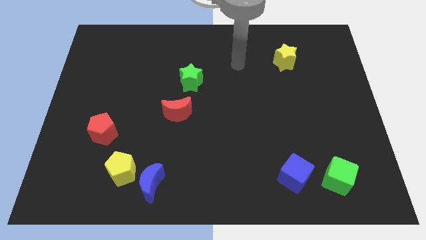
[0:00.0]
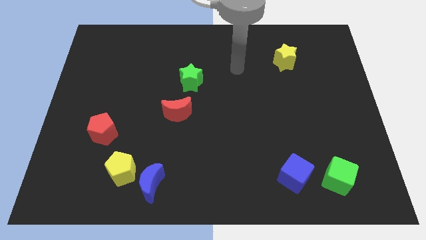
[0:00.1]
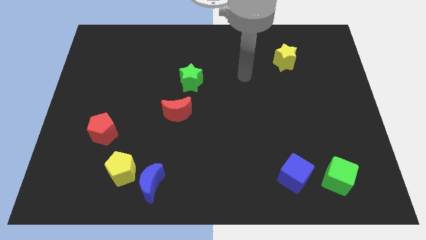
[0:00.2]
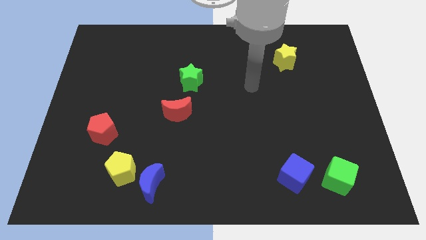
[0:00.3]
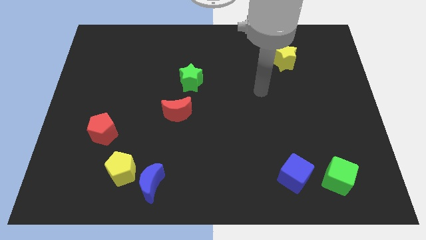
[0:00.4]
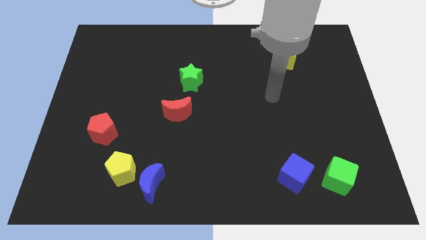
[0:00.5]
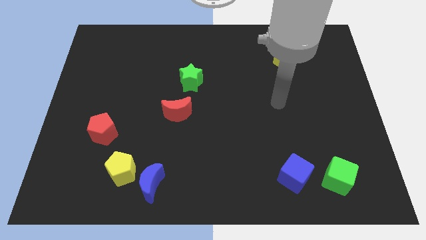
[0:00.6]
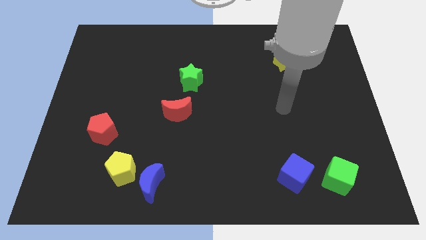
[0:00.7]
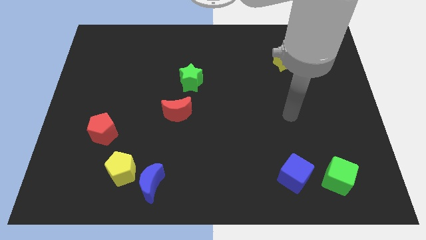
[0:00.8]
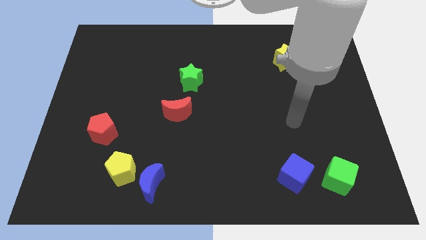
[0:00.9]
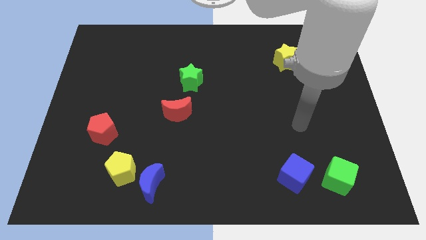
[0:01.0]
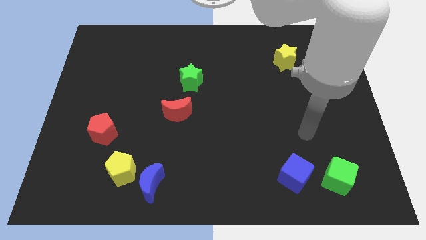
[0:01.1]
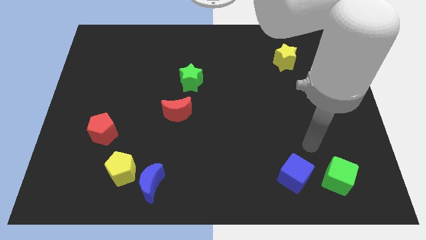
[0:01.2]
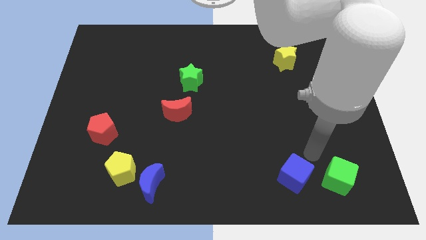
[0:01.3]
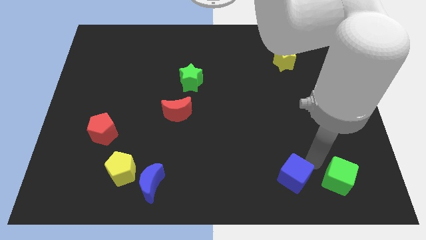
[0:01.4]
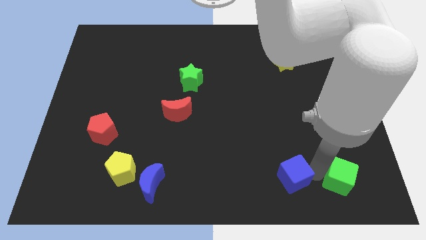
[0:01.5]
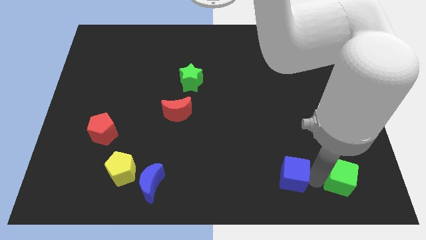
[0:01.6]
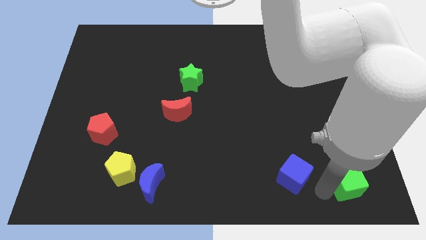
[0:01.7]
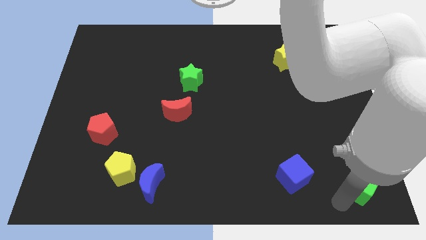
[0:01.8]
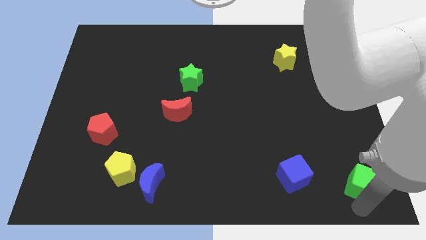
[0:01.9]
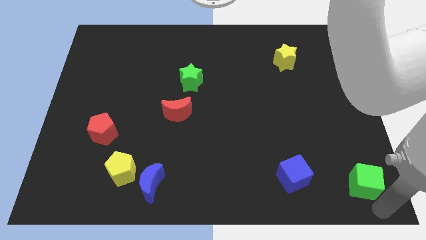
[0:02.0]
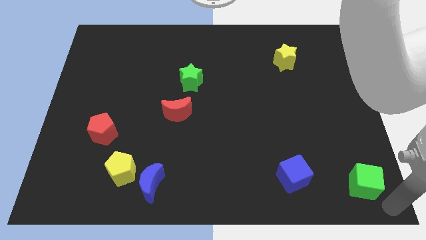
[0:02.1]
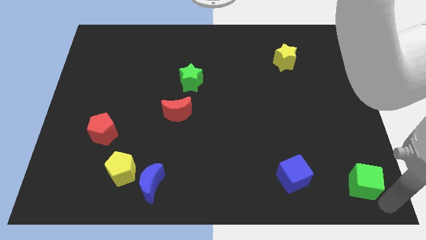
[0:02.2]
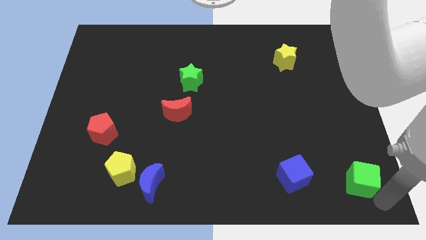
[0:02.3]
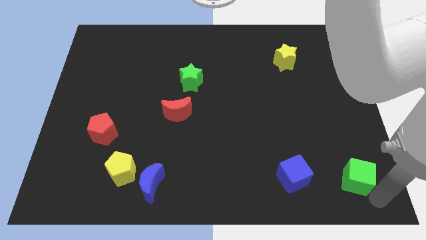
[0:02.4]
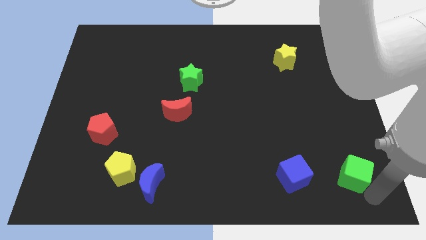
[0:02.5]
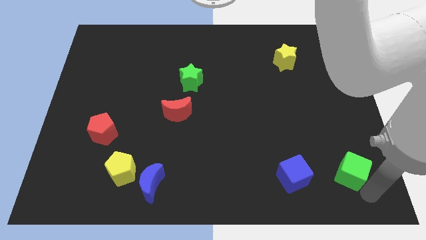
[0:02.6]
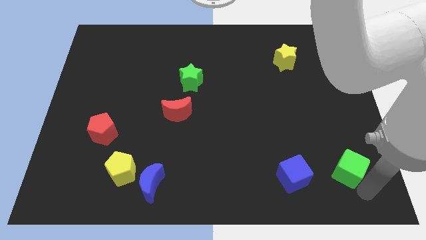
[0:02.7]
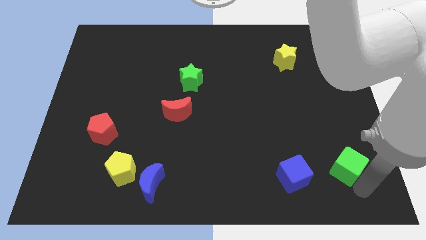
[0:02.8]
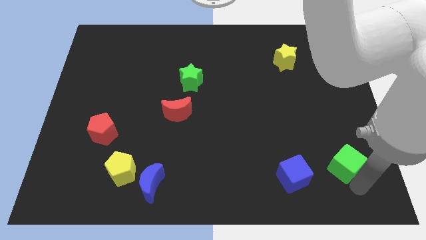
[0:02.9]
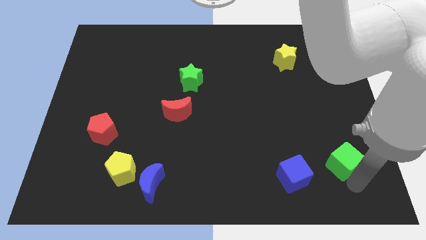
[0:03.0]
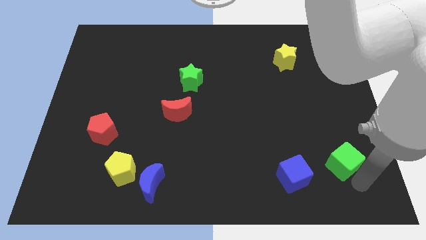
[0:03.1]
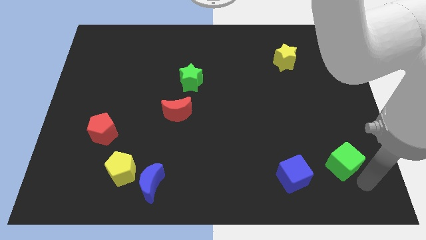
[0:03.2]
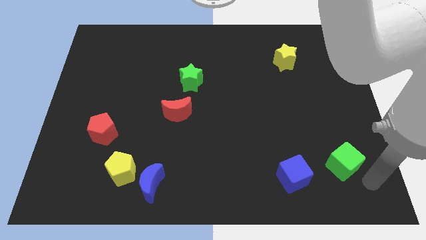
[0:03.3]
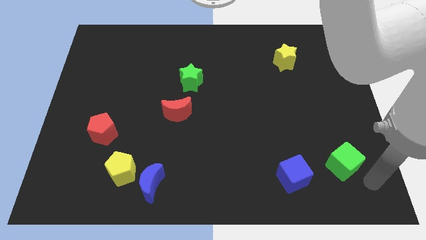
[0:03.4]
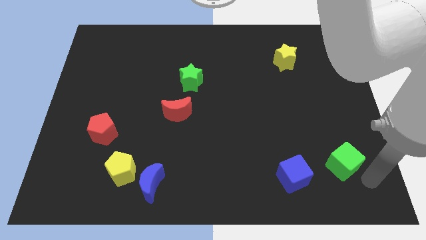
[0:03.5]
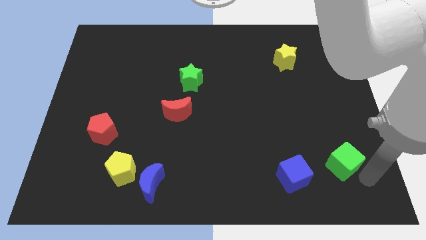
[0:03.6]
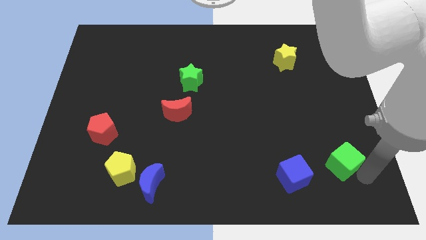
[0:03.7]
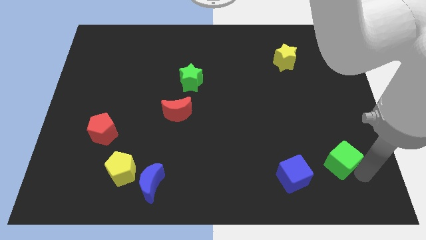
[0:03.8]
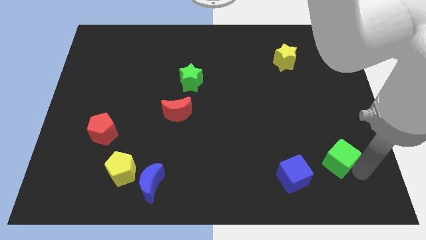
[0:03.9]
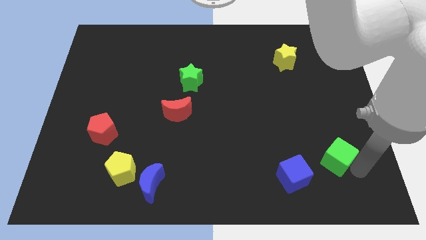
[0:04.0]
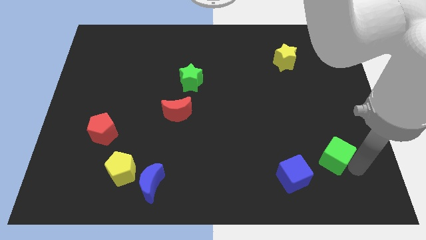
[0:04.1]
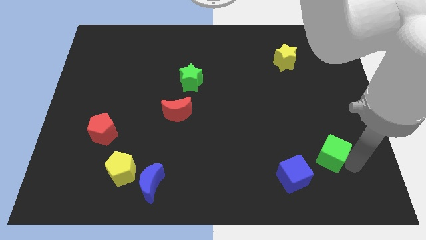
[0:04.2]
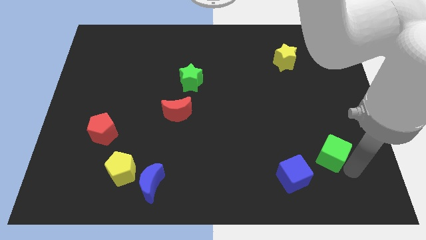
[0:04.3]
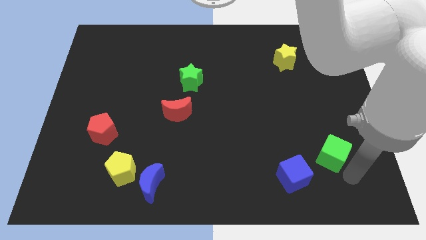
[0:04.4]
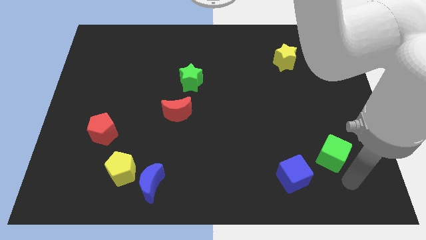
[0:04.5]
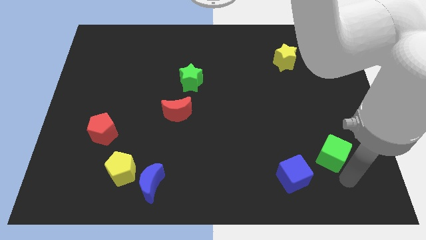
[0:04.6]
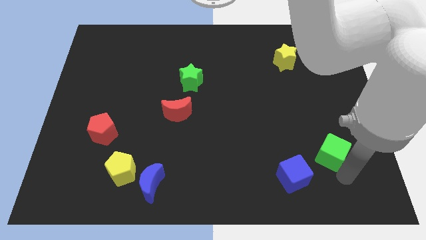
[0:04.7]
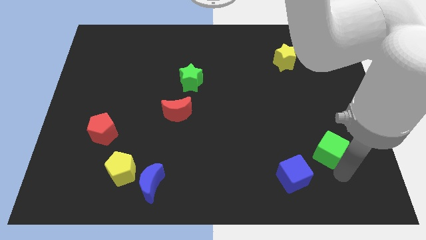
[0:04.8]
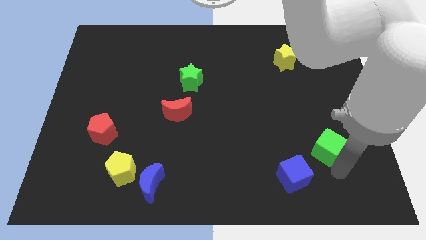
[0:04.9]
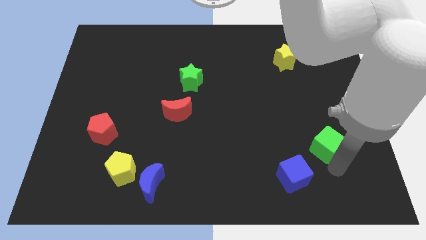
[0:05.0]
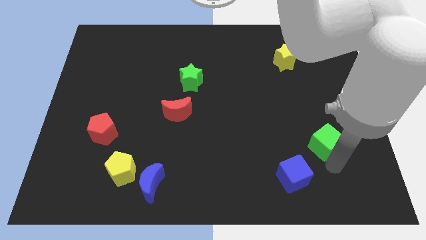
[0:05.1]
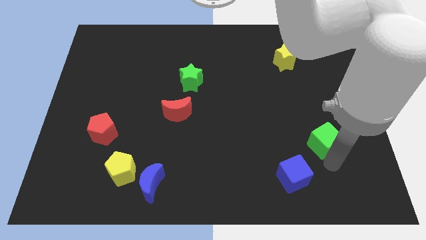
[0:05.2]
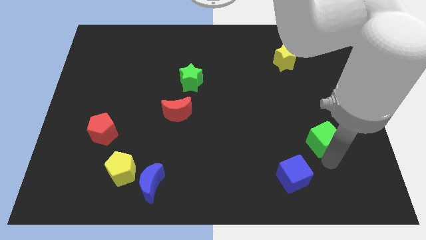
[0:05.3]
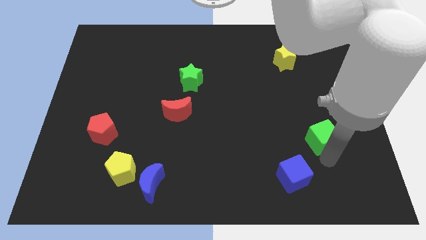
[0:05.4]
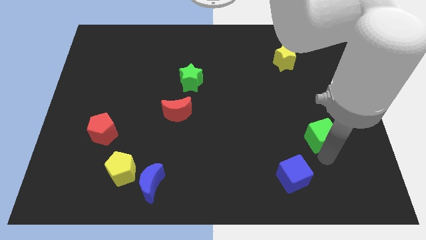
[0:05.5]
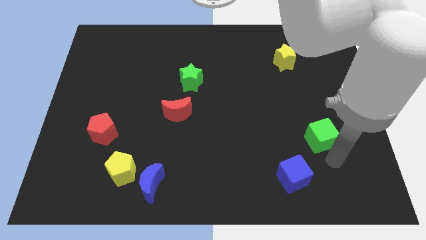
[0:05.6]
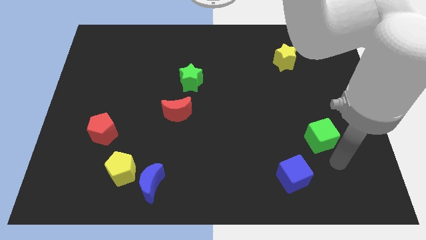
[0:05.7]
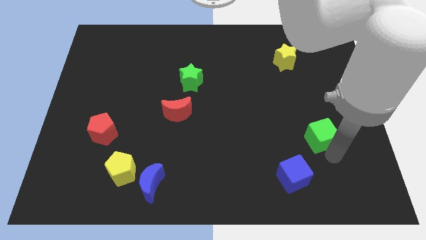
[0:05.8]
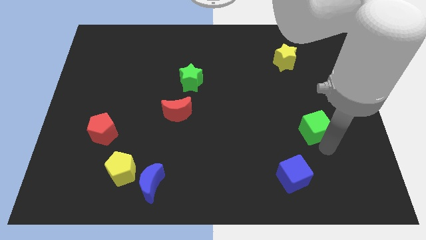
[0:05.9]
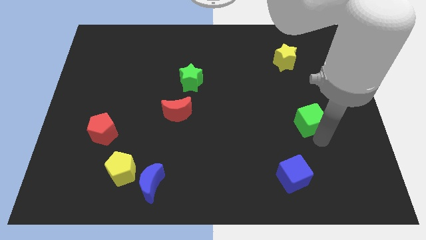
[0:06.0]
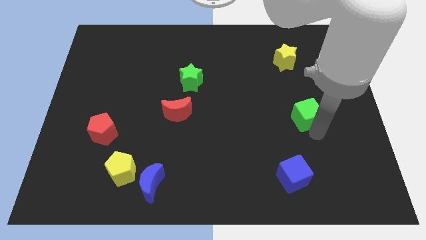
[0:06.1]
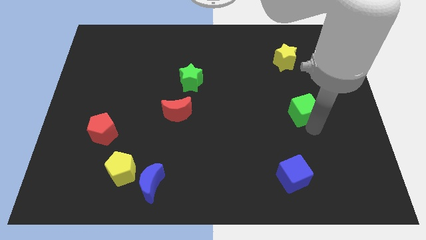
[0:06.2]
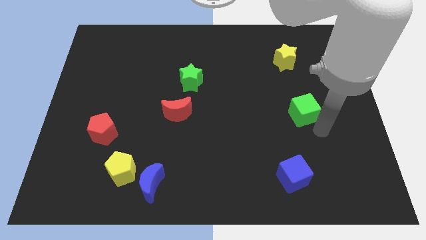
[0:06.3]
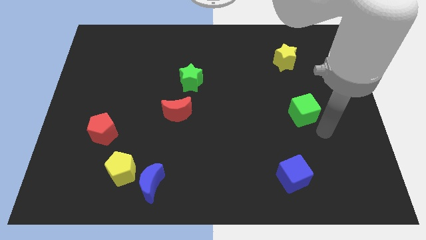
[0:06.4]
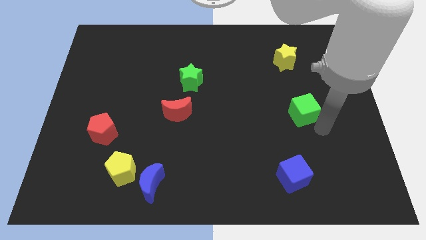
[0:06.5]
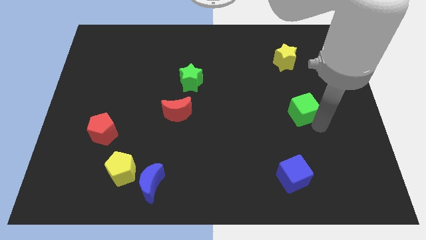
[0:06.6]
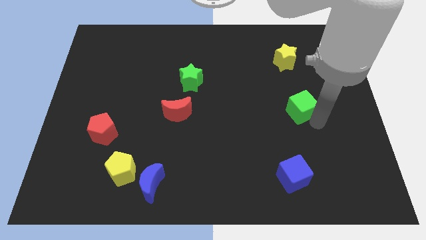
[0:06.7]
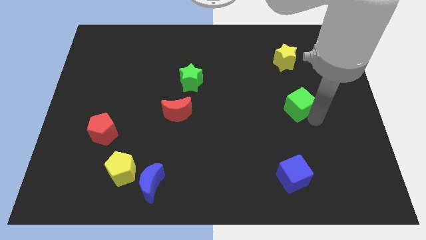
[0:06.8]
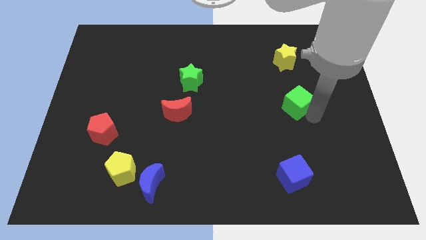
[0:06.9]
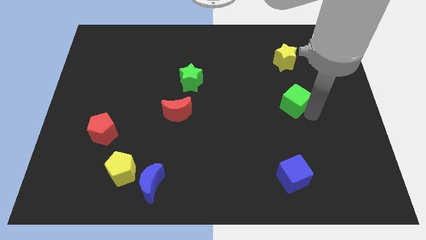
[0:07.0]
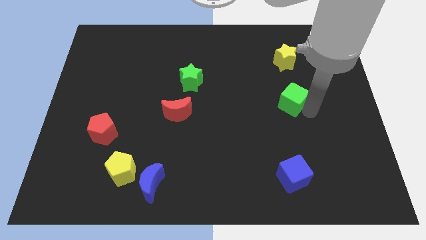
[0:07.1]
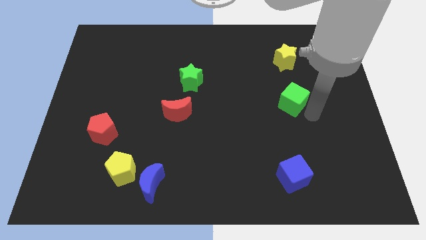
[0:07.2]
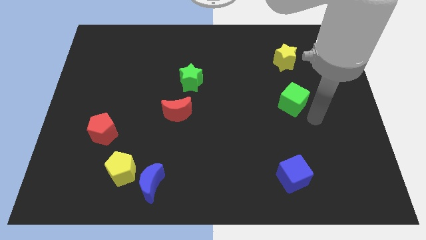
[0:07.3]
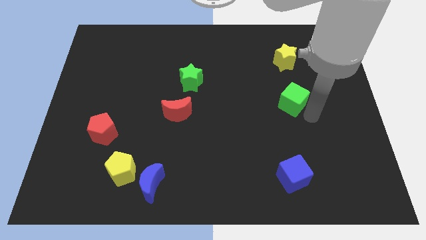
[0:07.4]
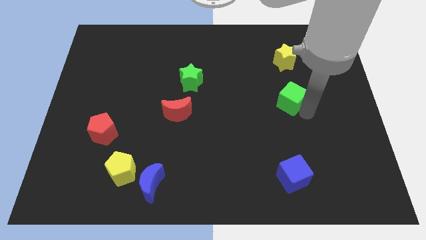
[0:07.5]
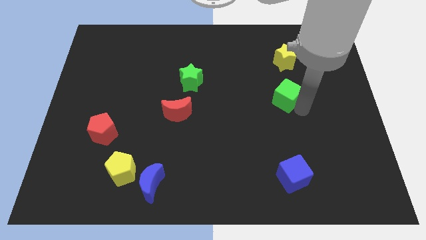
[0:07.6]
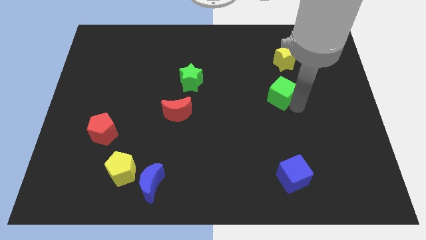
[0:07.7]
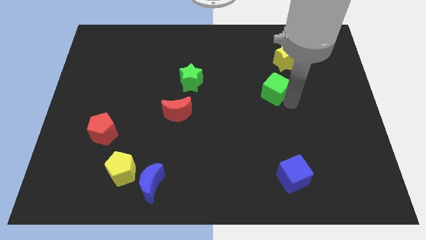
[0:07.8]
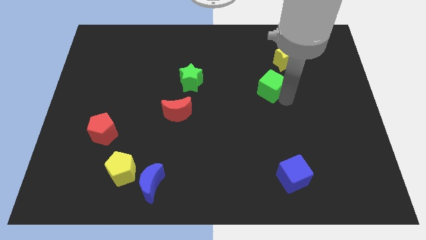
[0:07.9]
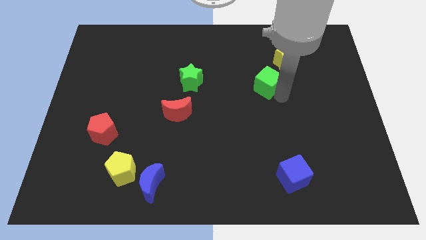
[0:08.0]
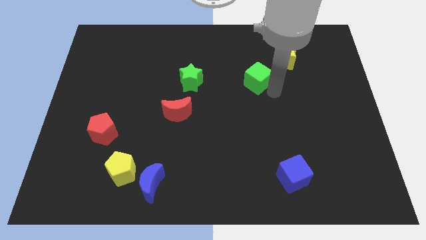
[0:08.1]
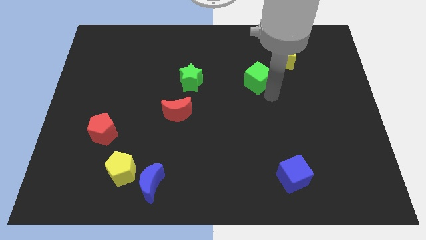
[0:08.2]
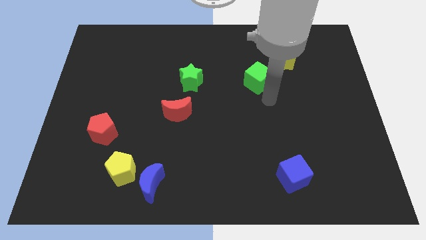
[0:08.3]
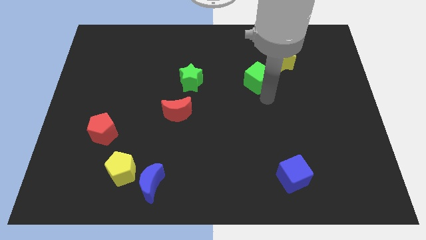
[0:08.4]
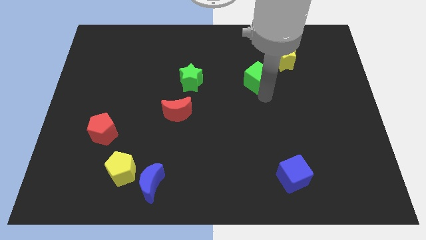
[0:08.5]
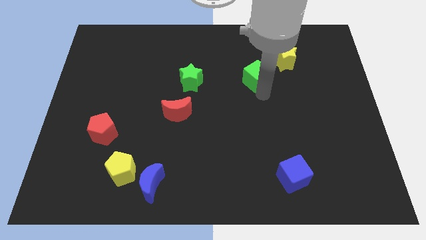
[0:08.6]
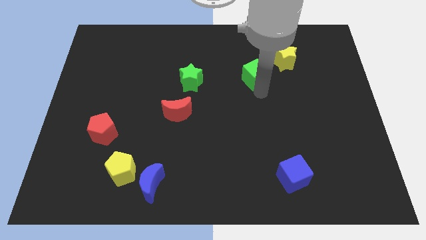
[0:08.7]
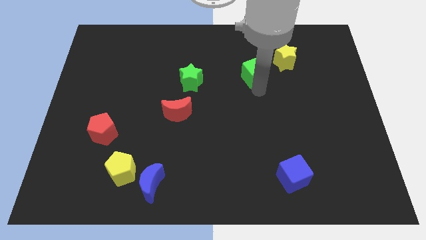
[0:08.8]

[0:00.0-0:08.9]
push the green cube just left of the yellow star
